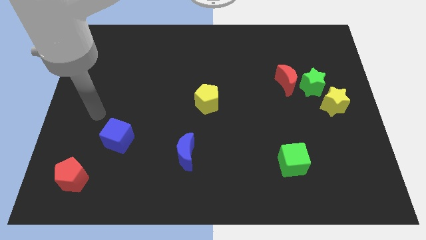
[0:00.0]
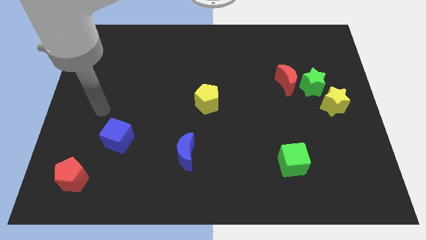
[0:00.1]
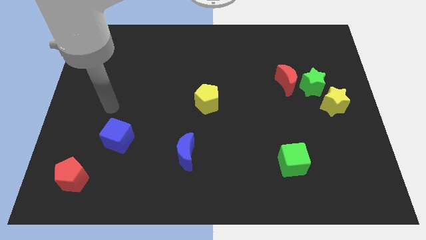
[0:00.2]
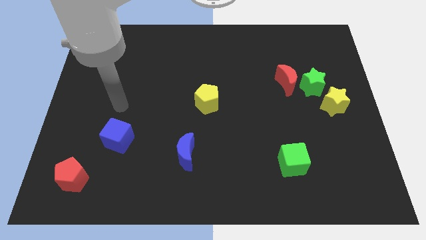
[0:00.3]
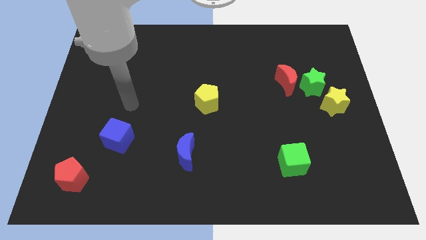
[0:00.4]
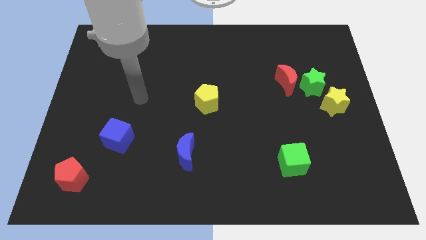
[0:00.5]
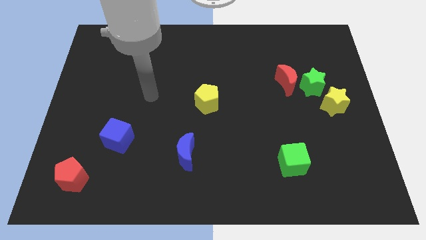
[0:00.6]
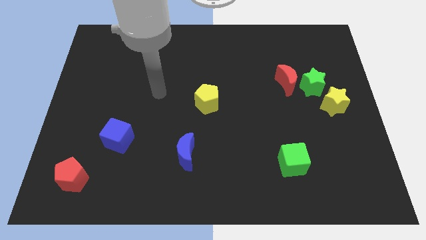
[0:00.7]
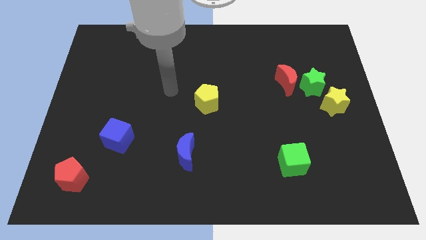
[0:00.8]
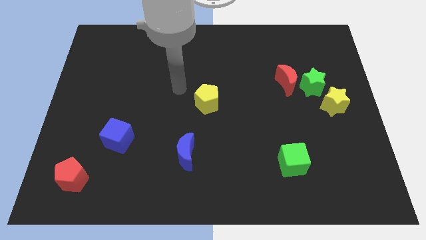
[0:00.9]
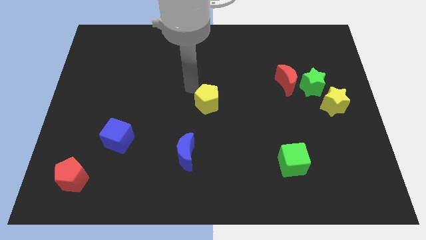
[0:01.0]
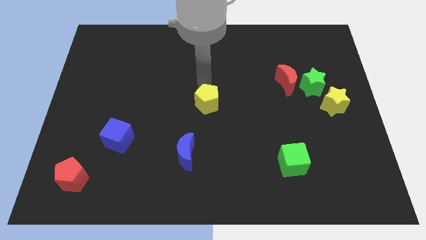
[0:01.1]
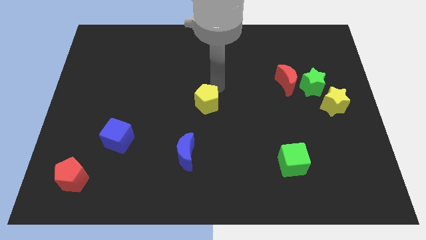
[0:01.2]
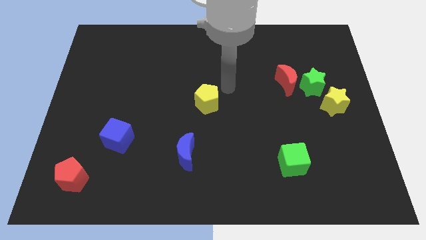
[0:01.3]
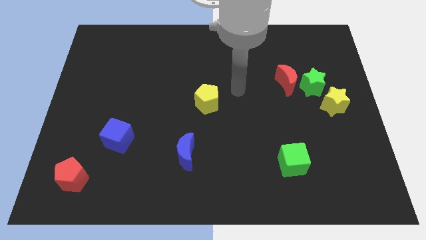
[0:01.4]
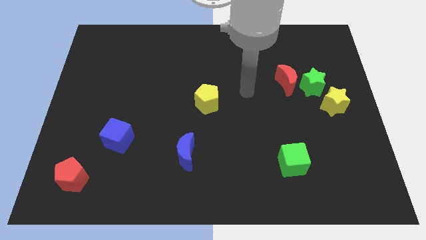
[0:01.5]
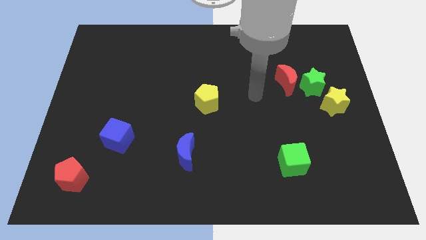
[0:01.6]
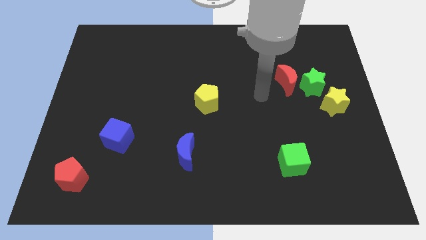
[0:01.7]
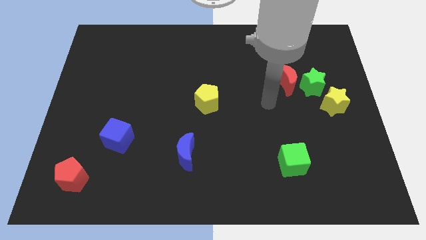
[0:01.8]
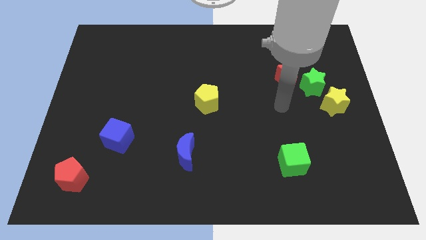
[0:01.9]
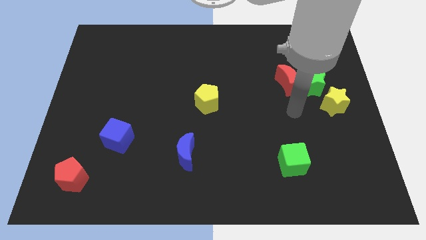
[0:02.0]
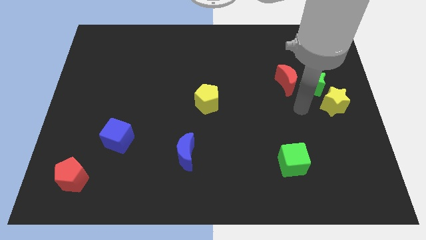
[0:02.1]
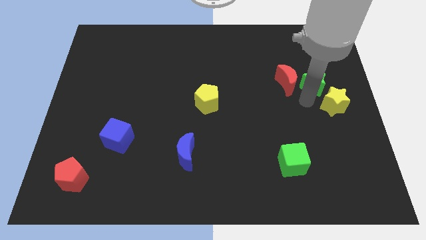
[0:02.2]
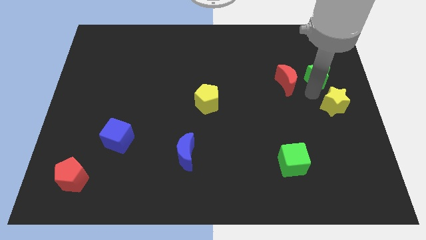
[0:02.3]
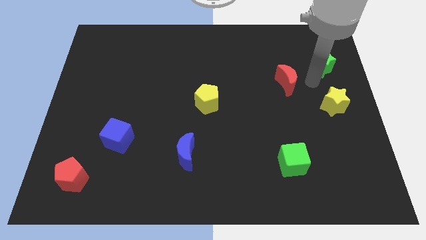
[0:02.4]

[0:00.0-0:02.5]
move the red moon away from the green star

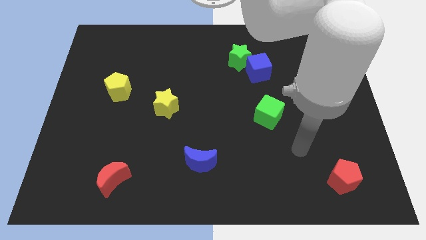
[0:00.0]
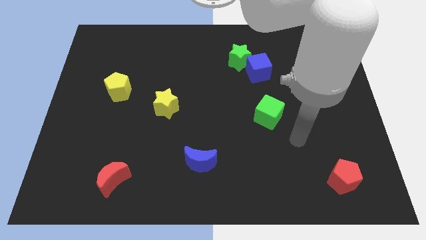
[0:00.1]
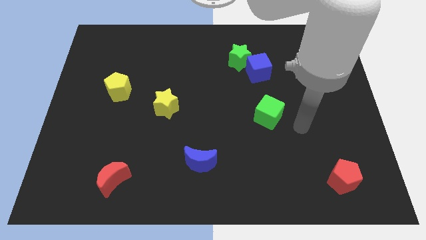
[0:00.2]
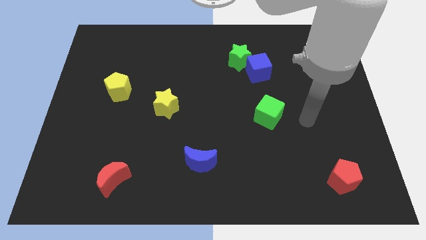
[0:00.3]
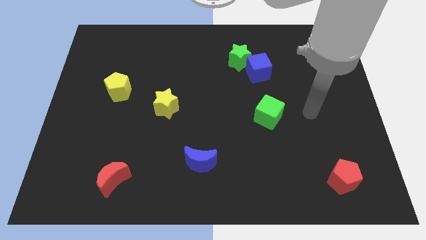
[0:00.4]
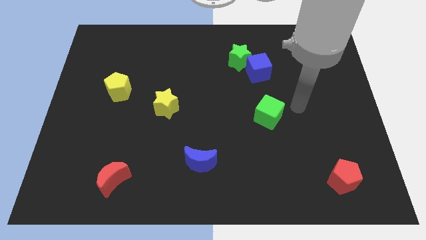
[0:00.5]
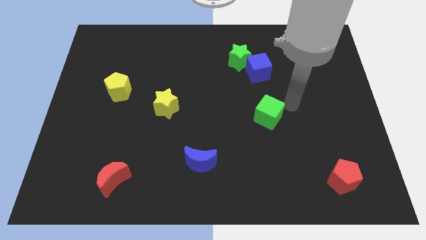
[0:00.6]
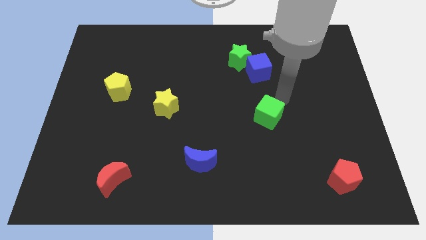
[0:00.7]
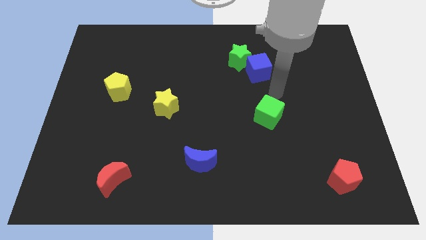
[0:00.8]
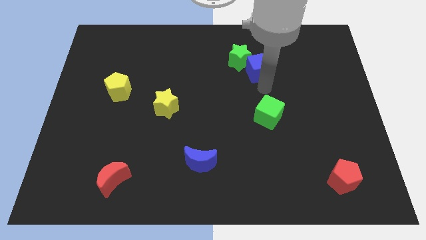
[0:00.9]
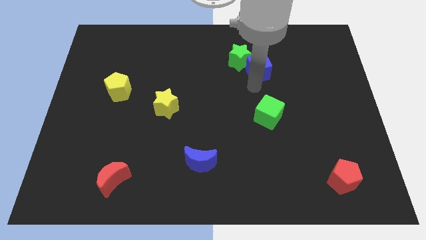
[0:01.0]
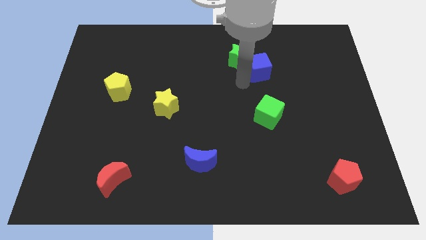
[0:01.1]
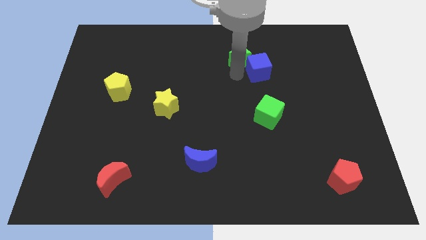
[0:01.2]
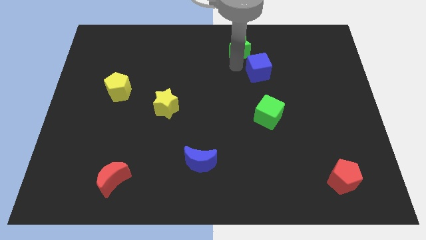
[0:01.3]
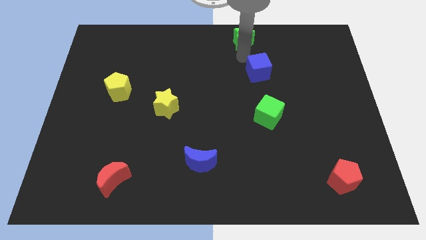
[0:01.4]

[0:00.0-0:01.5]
pull the blue cube apart from the green star

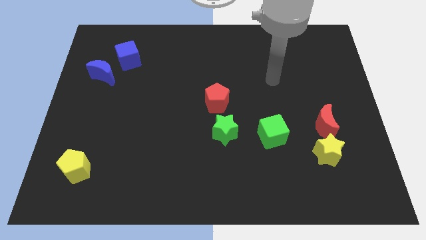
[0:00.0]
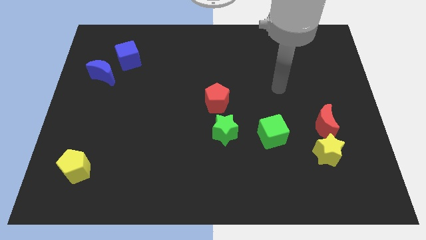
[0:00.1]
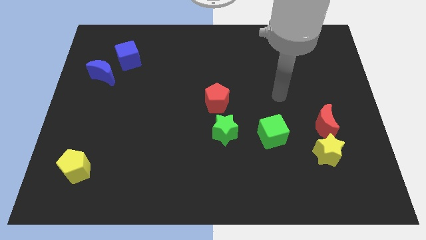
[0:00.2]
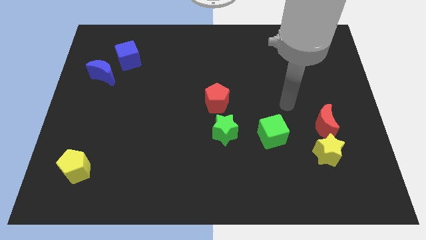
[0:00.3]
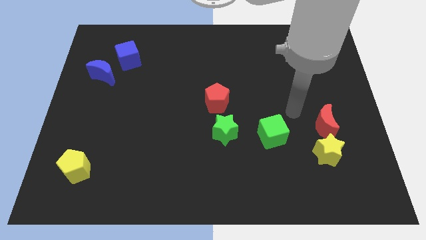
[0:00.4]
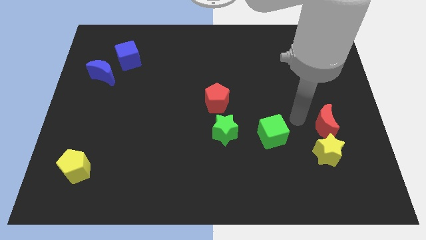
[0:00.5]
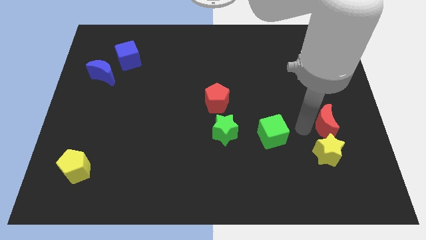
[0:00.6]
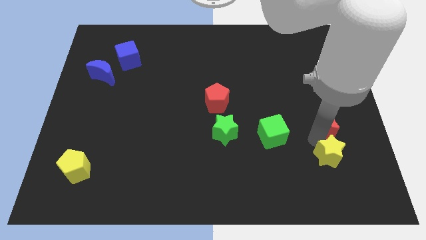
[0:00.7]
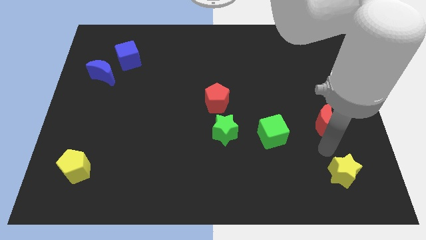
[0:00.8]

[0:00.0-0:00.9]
pull the red moon apart from the yellow star

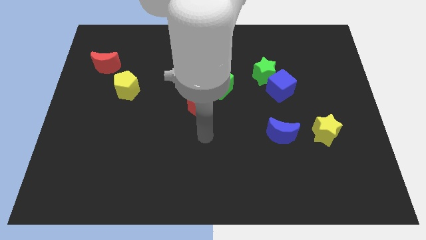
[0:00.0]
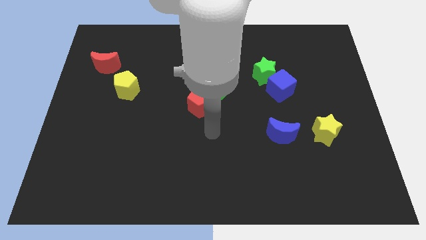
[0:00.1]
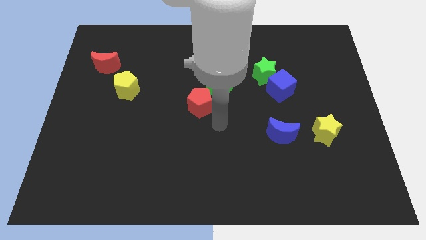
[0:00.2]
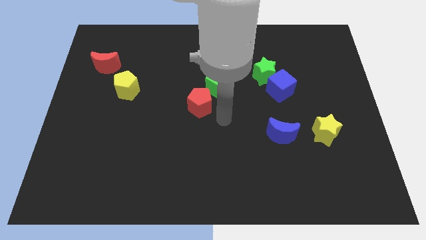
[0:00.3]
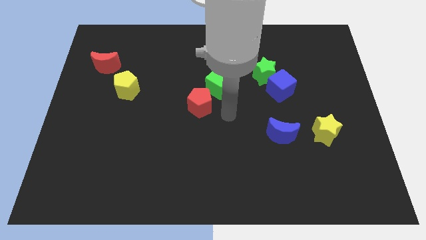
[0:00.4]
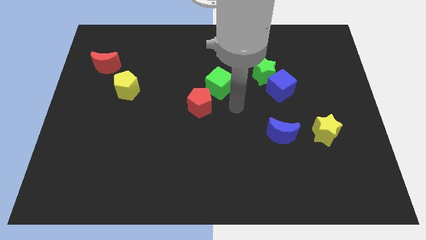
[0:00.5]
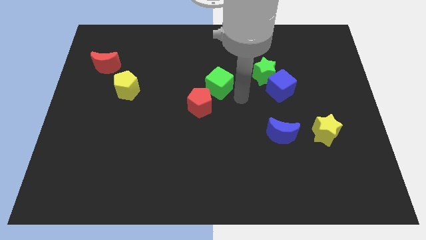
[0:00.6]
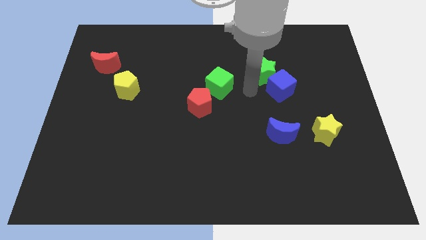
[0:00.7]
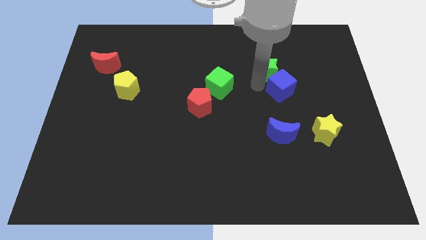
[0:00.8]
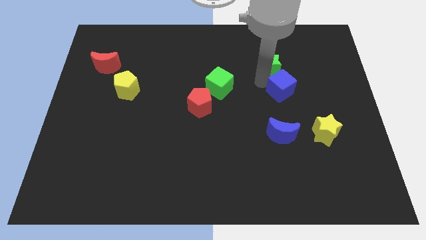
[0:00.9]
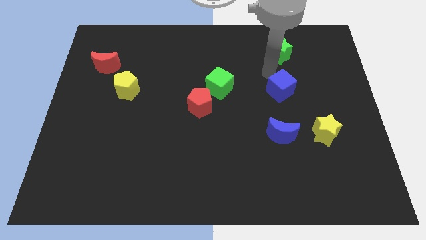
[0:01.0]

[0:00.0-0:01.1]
move the blue cube away from the green star

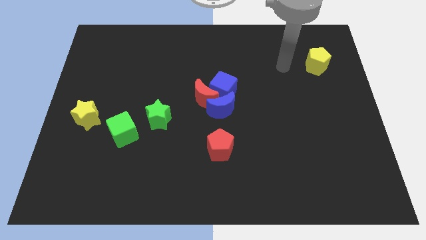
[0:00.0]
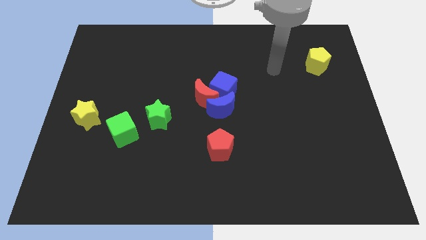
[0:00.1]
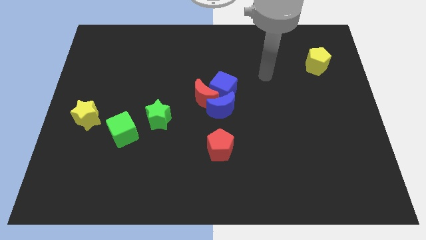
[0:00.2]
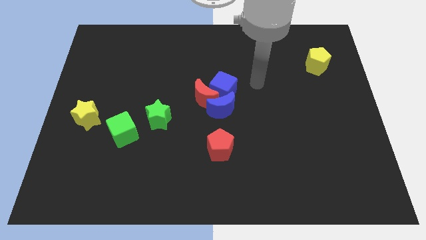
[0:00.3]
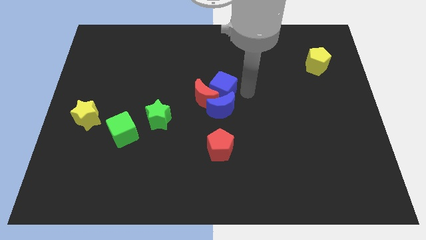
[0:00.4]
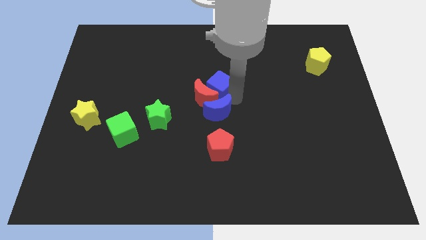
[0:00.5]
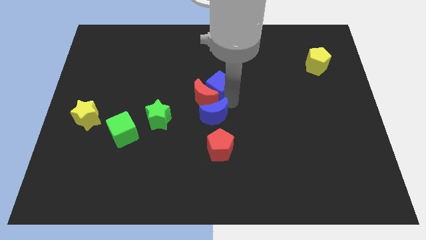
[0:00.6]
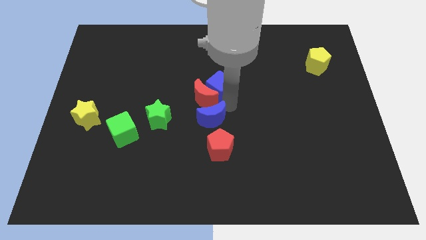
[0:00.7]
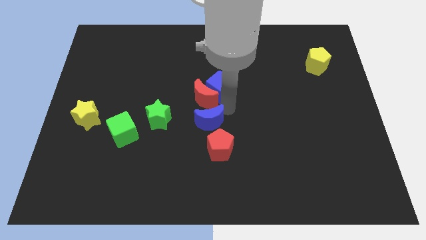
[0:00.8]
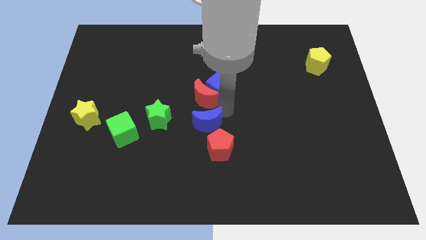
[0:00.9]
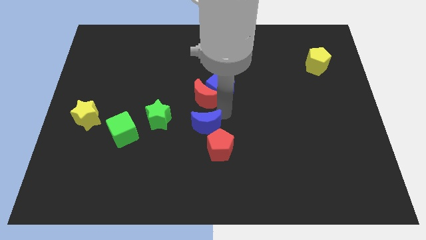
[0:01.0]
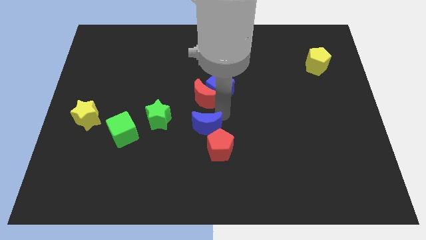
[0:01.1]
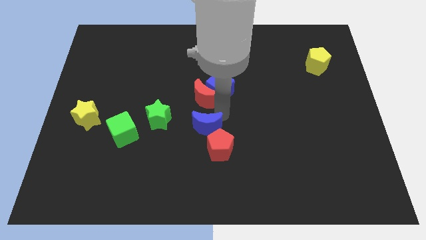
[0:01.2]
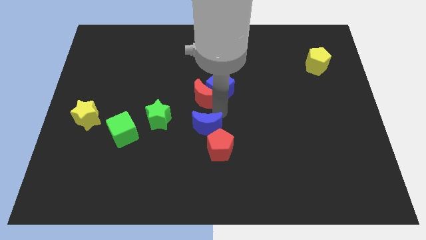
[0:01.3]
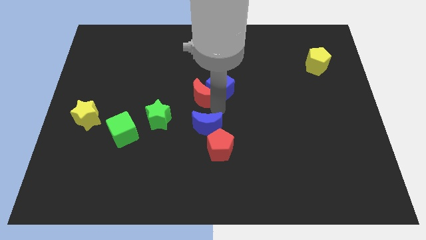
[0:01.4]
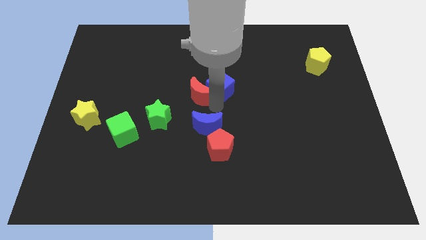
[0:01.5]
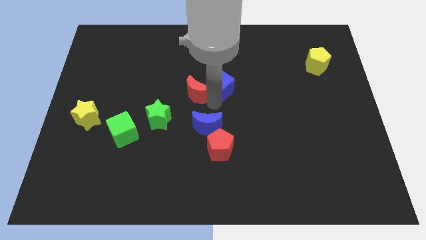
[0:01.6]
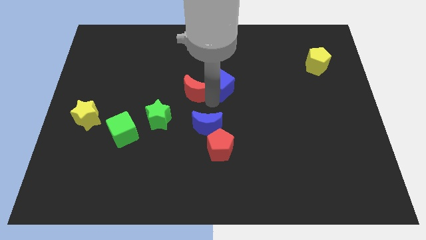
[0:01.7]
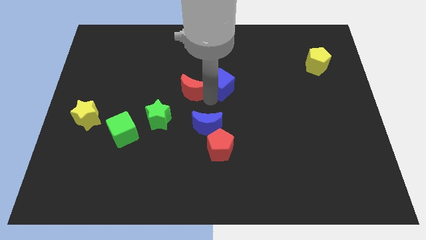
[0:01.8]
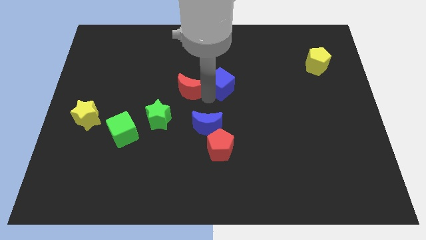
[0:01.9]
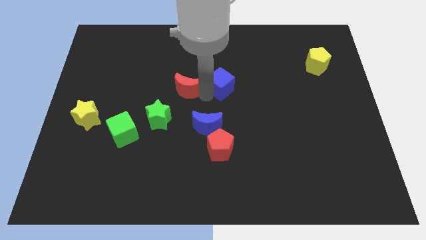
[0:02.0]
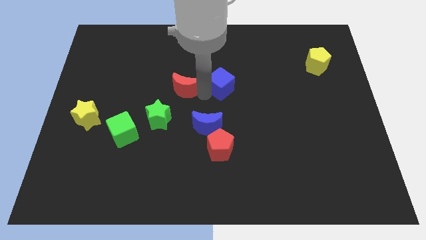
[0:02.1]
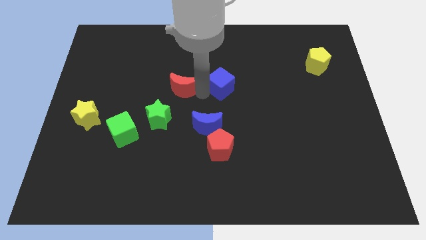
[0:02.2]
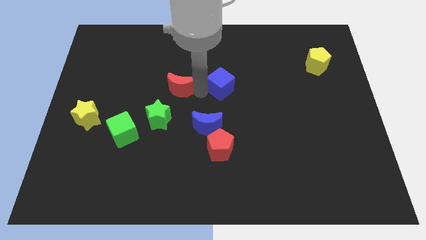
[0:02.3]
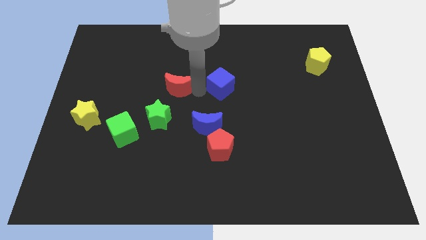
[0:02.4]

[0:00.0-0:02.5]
move the red moon away from the blue cube and blue moon

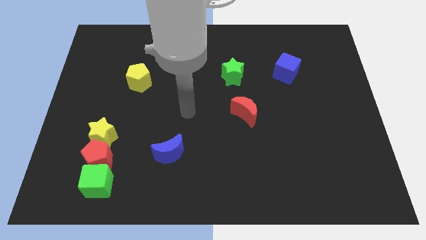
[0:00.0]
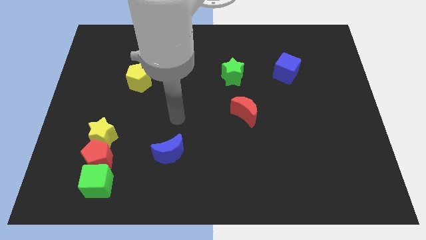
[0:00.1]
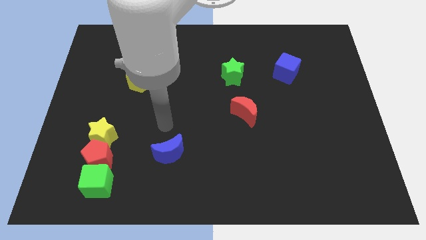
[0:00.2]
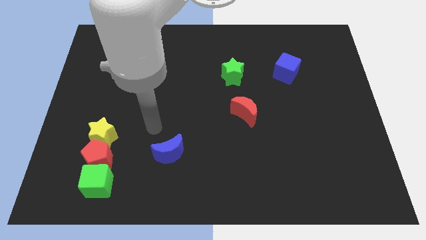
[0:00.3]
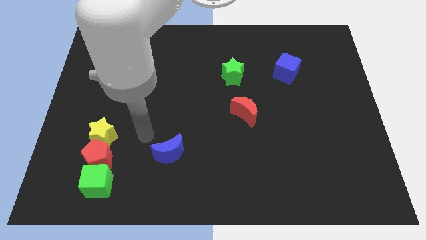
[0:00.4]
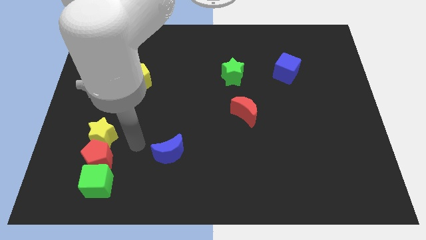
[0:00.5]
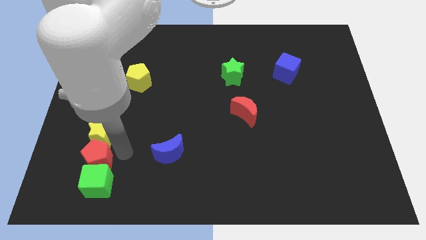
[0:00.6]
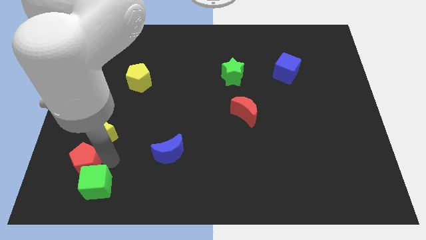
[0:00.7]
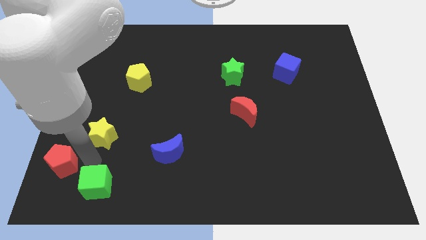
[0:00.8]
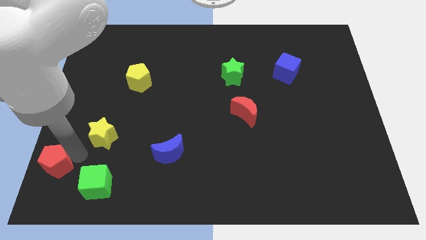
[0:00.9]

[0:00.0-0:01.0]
pull the yellow star apart from the red pentagon
